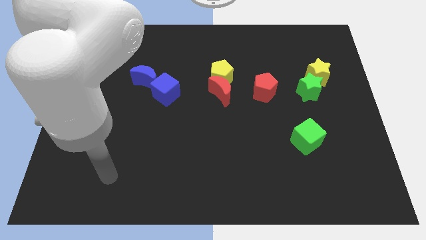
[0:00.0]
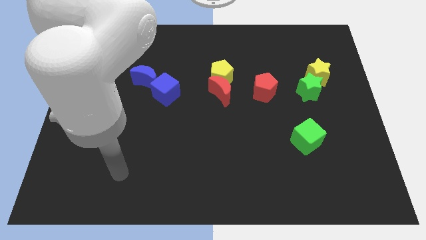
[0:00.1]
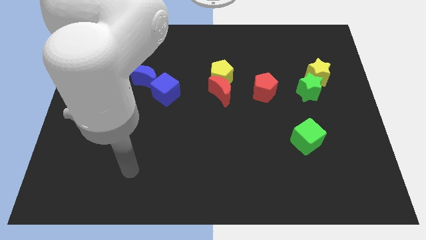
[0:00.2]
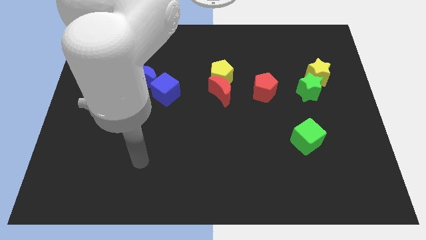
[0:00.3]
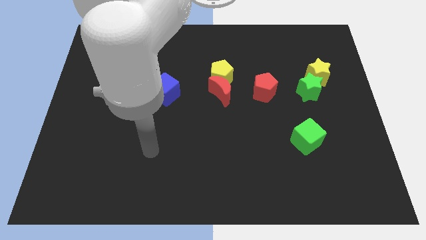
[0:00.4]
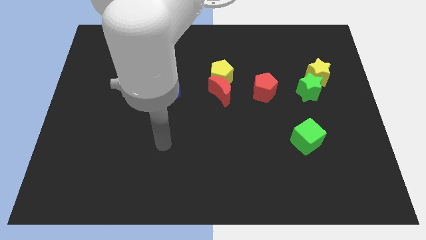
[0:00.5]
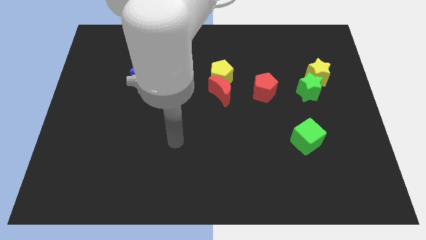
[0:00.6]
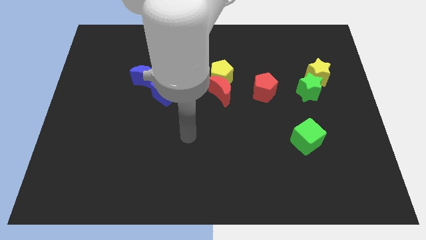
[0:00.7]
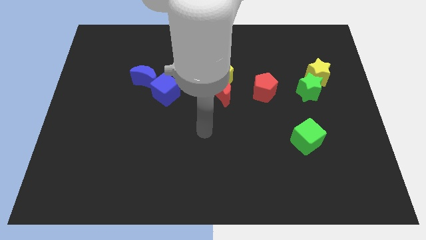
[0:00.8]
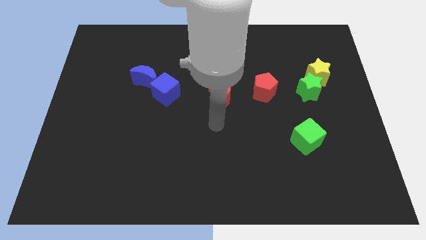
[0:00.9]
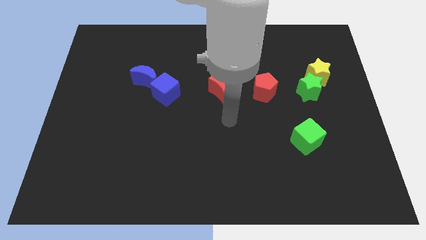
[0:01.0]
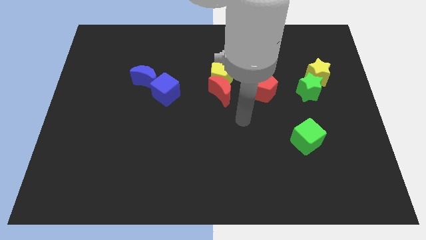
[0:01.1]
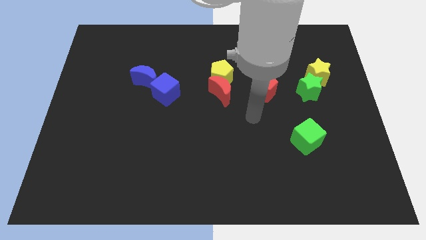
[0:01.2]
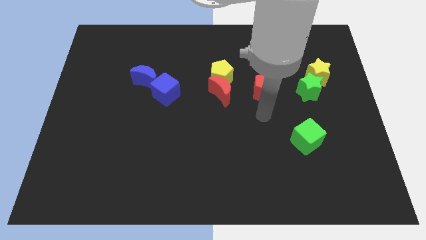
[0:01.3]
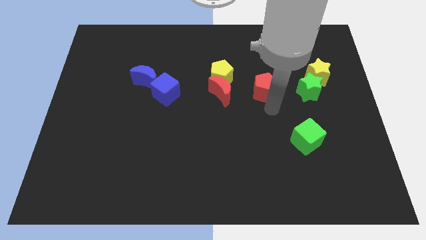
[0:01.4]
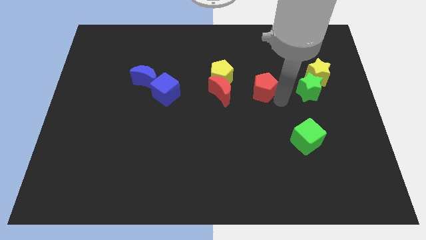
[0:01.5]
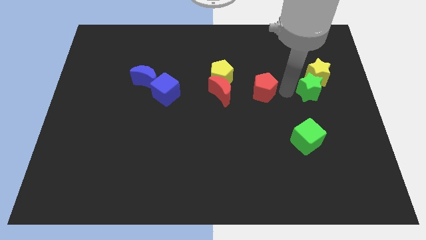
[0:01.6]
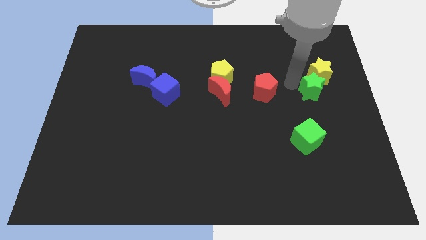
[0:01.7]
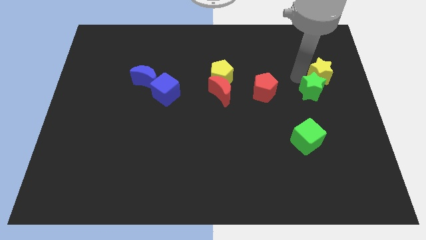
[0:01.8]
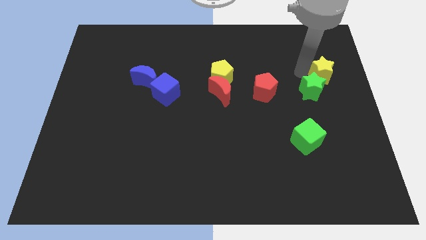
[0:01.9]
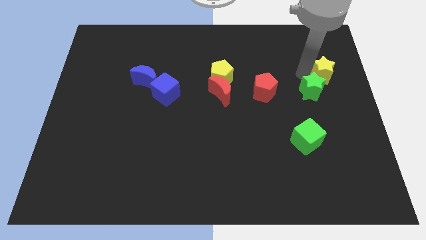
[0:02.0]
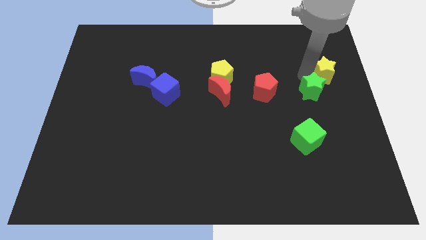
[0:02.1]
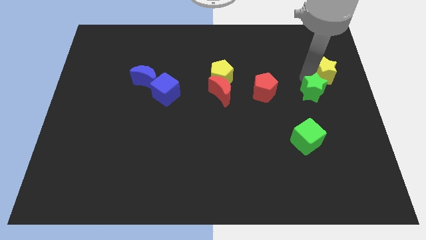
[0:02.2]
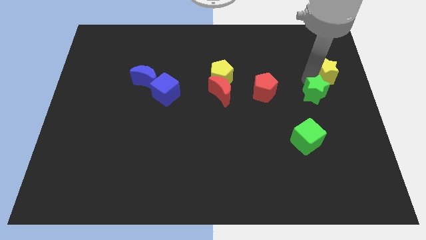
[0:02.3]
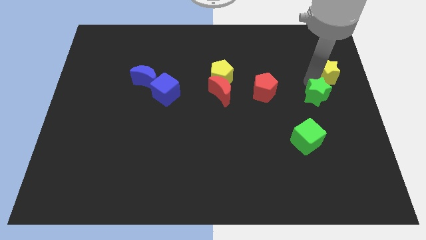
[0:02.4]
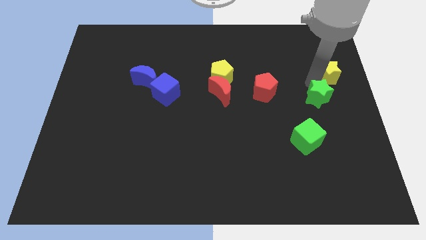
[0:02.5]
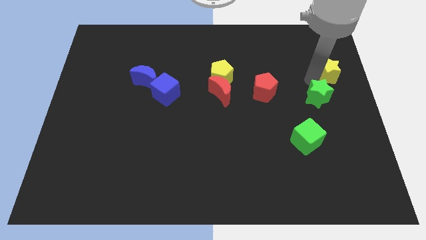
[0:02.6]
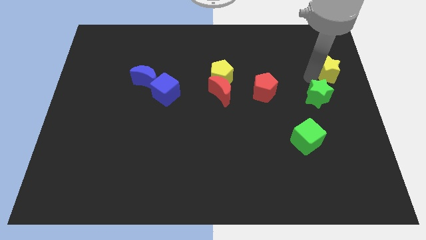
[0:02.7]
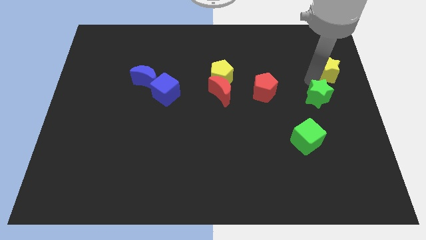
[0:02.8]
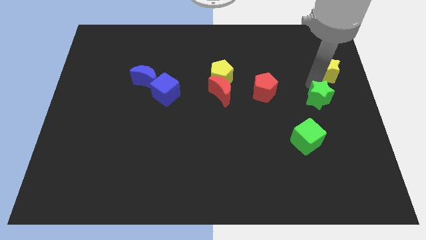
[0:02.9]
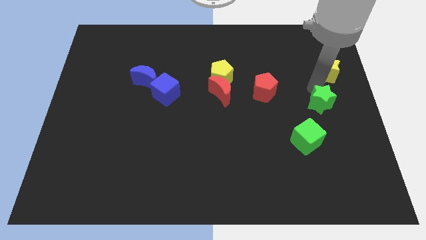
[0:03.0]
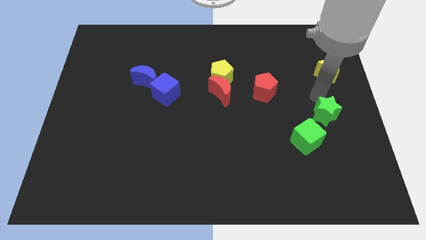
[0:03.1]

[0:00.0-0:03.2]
slightly move the green star downwards

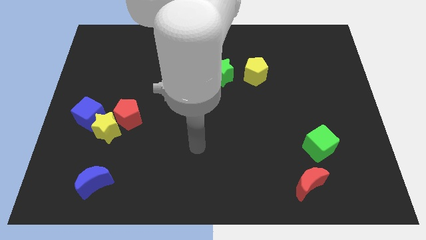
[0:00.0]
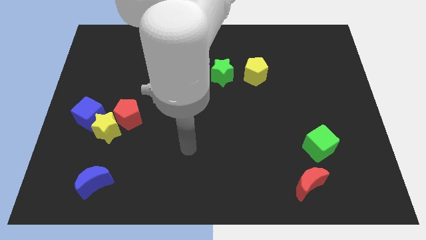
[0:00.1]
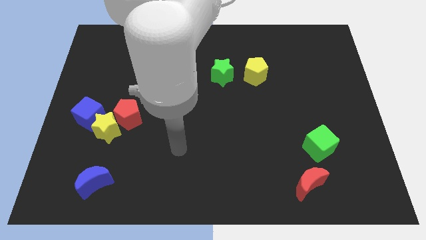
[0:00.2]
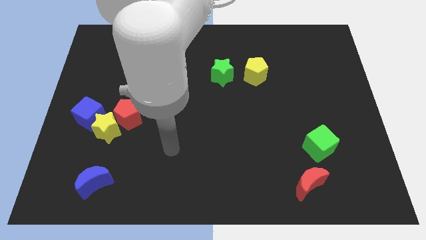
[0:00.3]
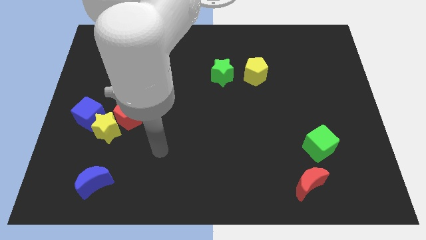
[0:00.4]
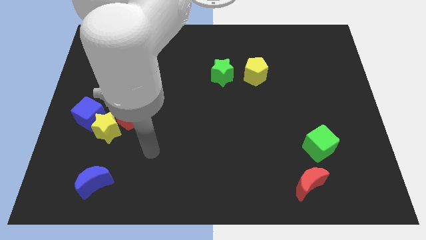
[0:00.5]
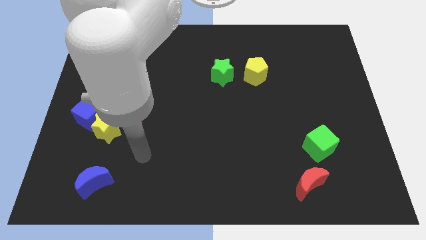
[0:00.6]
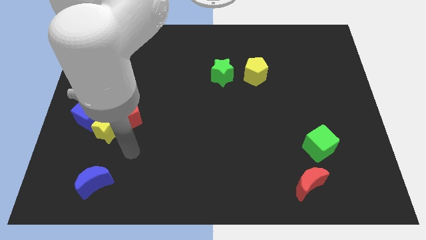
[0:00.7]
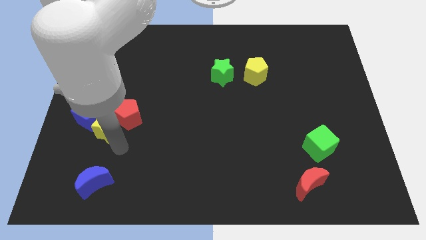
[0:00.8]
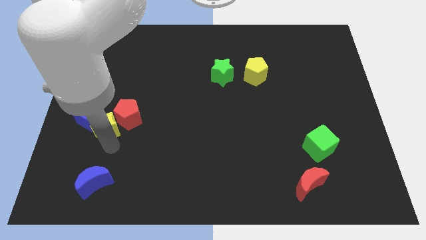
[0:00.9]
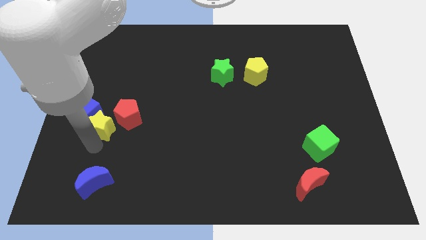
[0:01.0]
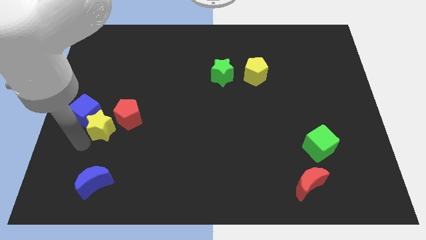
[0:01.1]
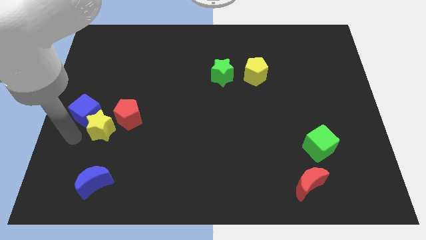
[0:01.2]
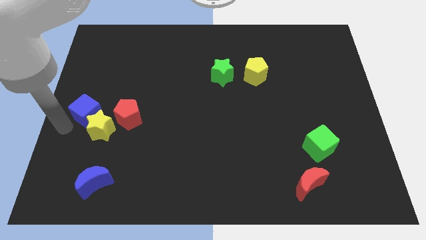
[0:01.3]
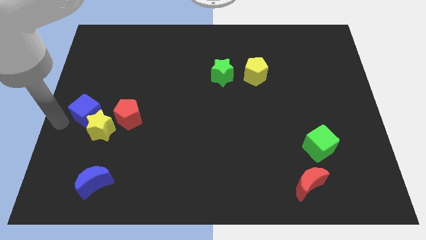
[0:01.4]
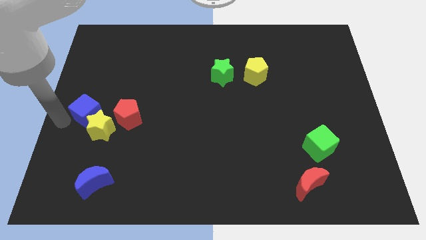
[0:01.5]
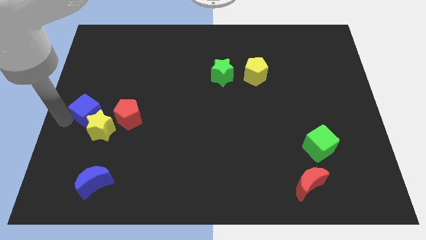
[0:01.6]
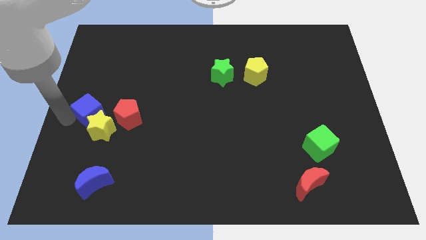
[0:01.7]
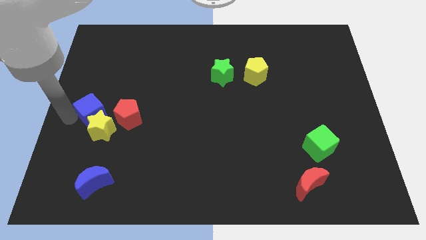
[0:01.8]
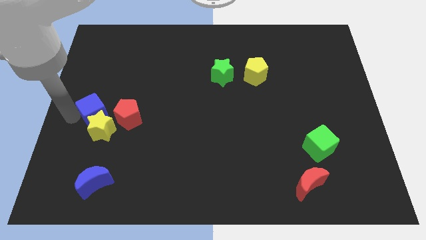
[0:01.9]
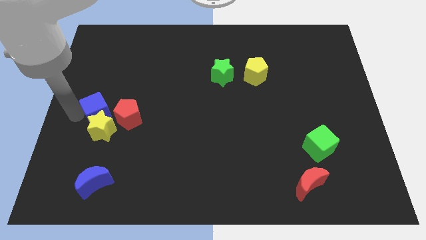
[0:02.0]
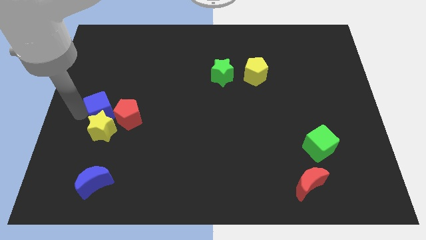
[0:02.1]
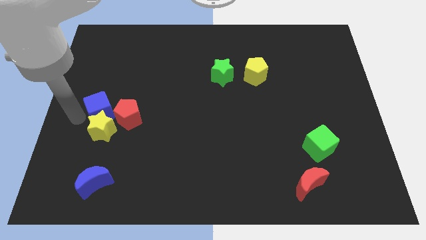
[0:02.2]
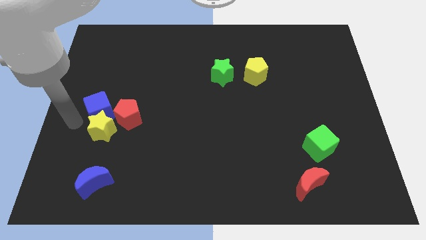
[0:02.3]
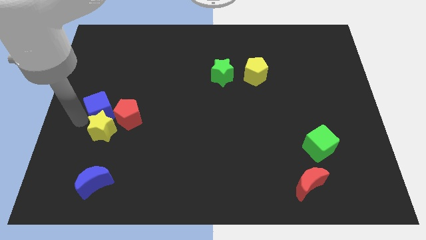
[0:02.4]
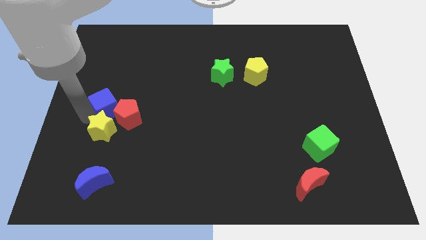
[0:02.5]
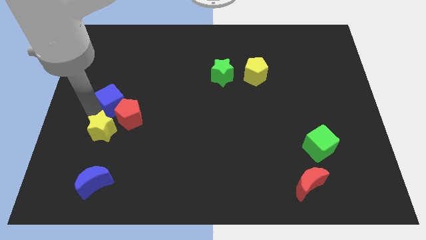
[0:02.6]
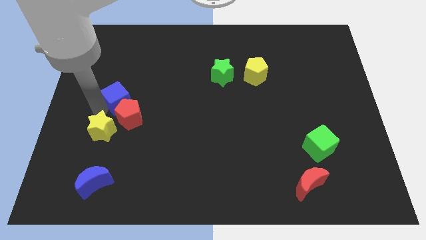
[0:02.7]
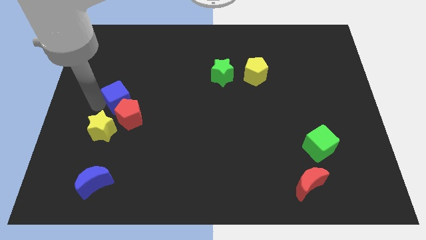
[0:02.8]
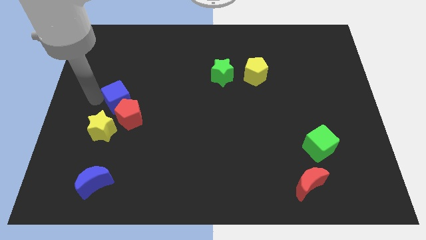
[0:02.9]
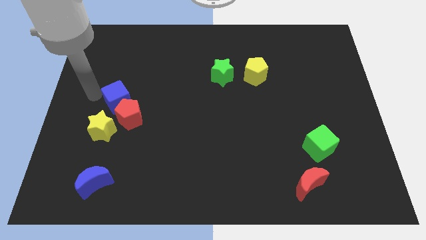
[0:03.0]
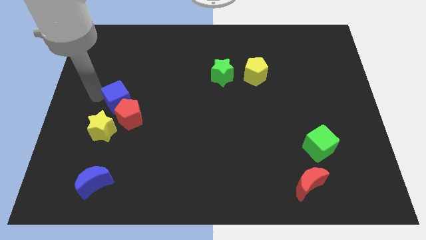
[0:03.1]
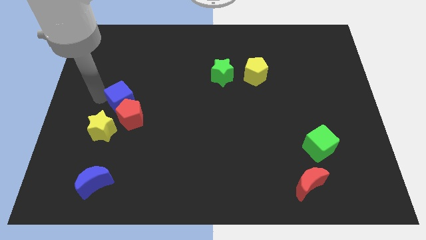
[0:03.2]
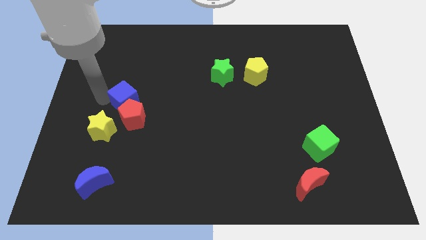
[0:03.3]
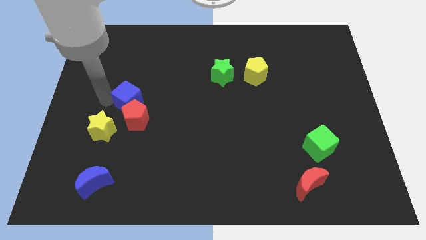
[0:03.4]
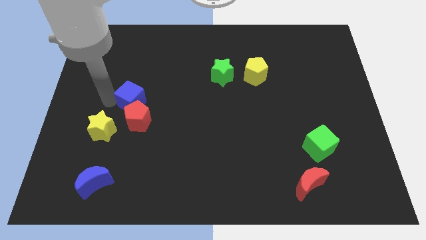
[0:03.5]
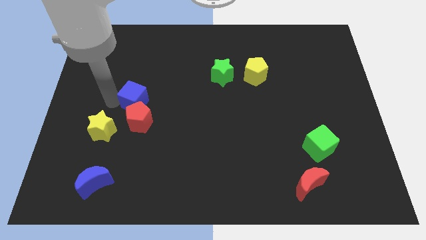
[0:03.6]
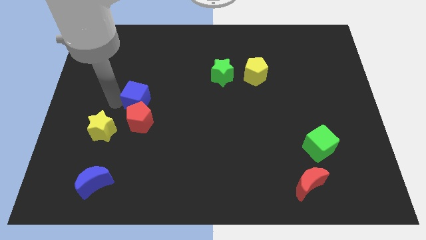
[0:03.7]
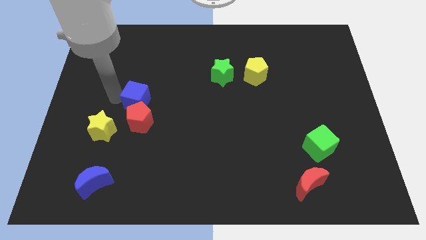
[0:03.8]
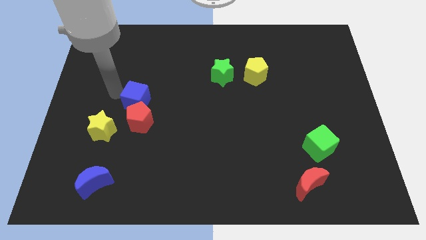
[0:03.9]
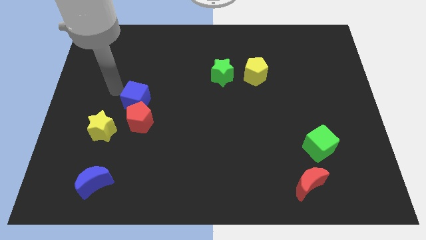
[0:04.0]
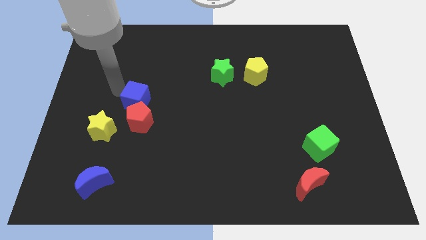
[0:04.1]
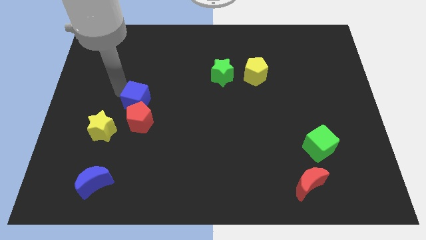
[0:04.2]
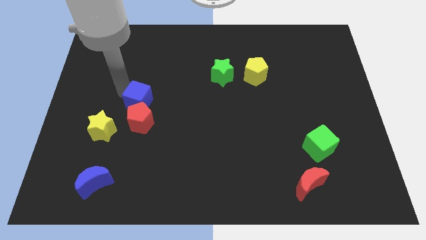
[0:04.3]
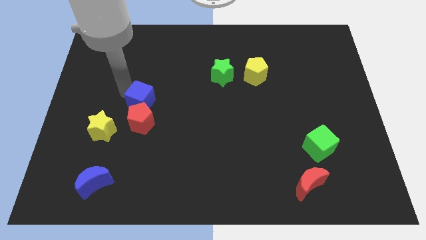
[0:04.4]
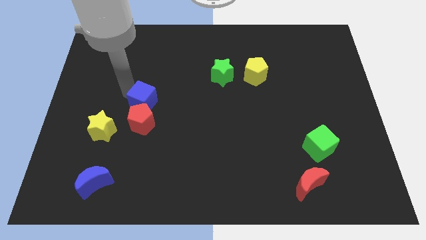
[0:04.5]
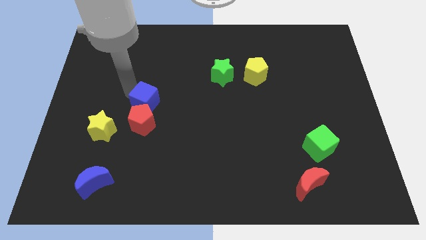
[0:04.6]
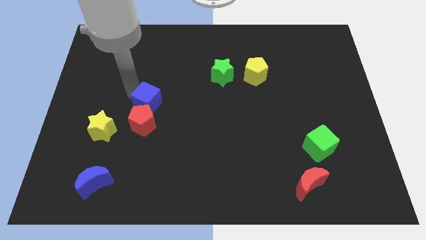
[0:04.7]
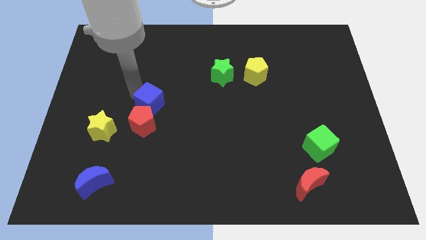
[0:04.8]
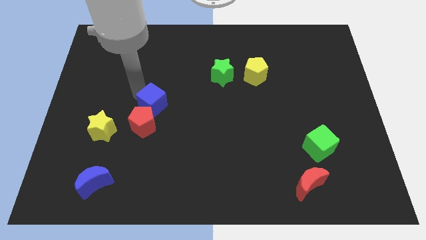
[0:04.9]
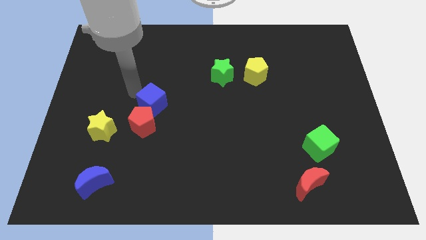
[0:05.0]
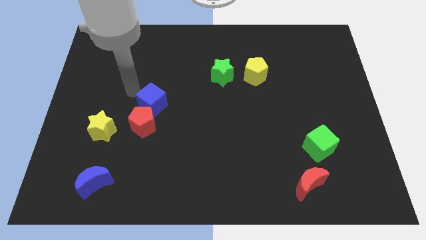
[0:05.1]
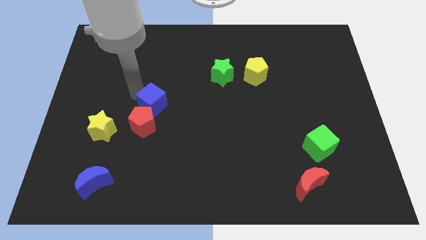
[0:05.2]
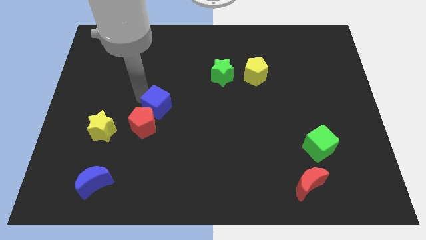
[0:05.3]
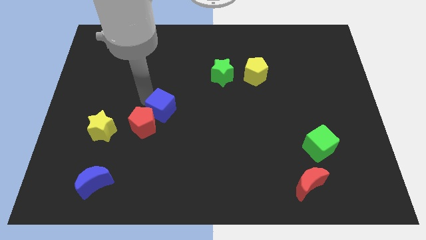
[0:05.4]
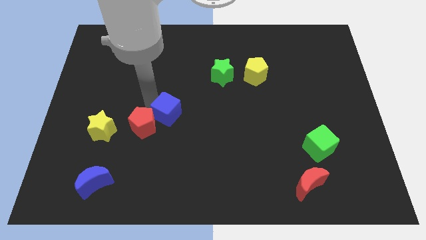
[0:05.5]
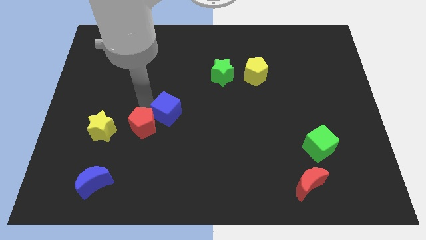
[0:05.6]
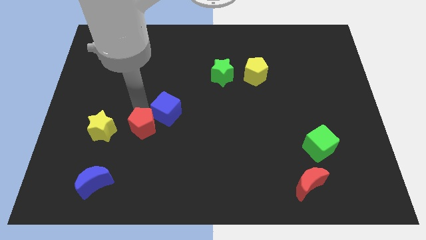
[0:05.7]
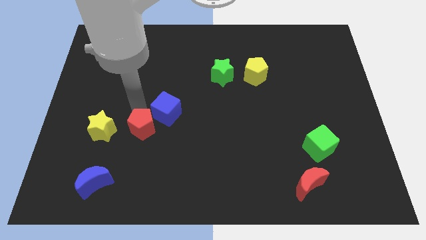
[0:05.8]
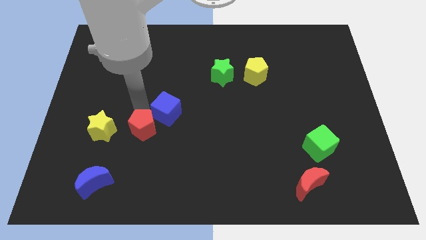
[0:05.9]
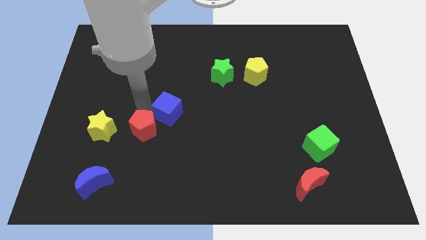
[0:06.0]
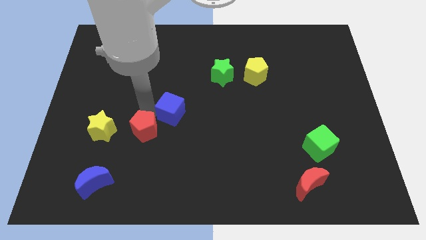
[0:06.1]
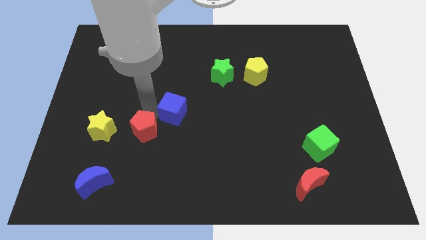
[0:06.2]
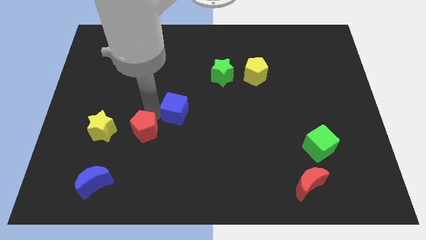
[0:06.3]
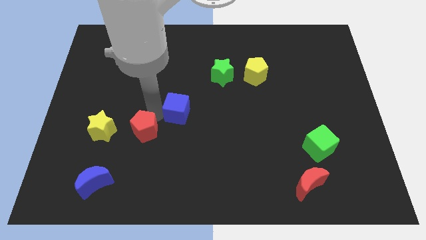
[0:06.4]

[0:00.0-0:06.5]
slide the blue cube to the right
